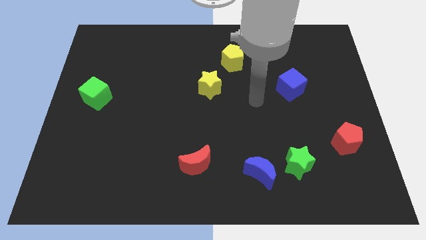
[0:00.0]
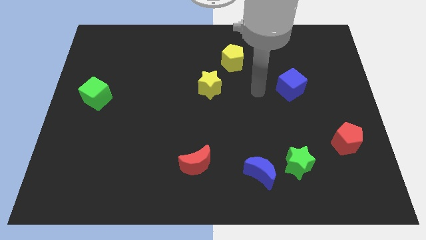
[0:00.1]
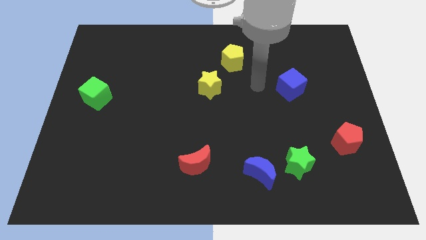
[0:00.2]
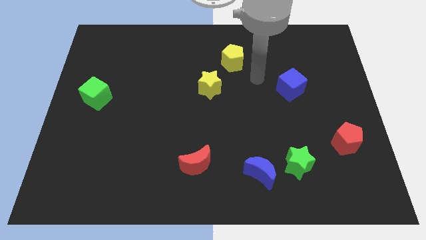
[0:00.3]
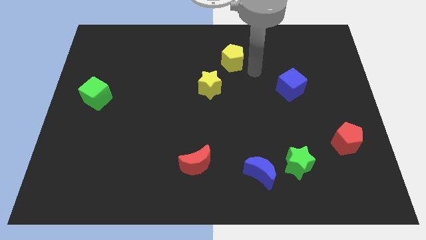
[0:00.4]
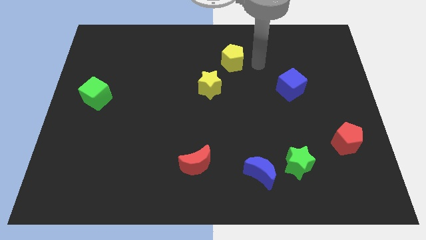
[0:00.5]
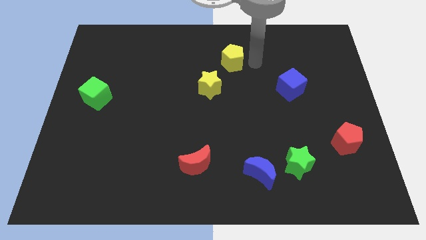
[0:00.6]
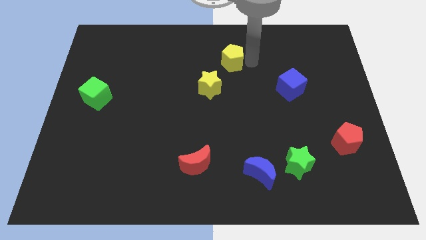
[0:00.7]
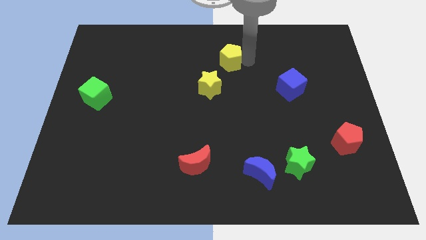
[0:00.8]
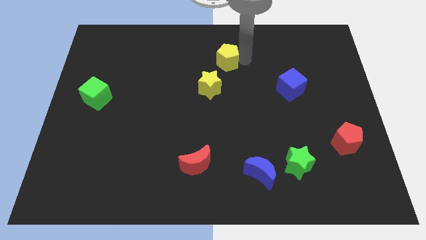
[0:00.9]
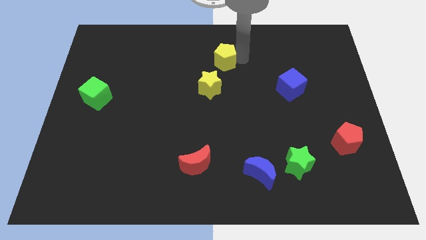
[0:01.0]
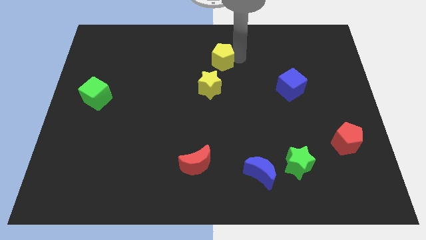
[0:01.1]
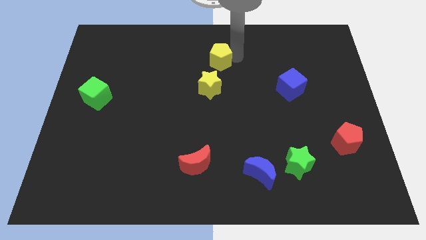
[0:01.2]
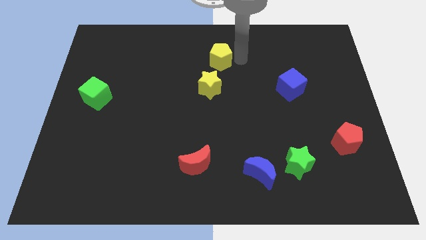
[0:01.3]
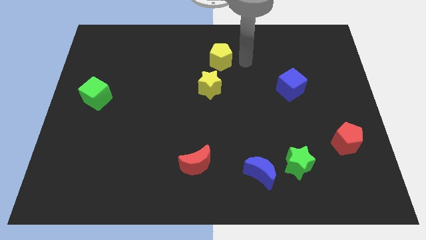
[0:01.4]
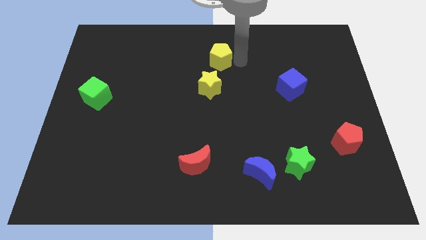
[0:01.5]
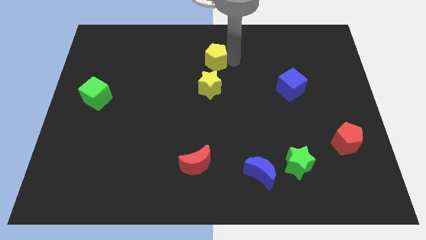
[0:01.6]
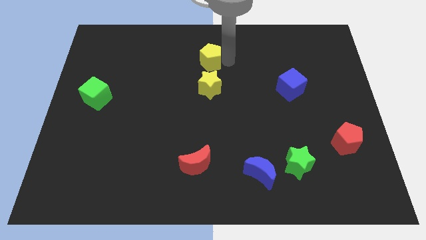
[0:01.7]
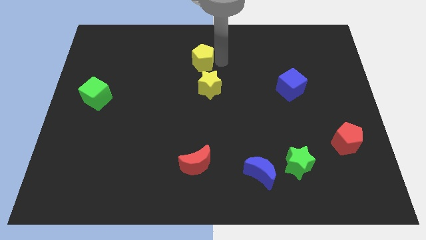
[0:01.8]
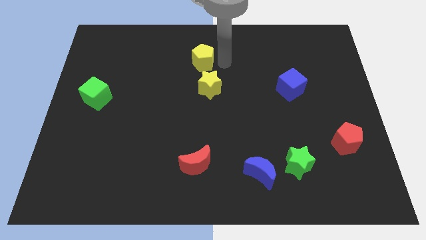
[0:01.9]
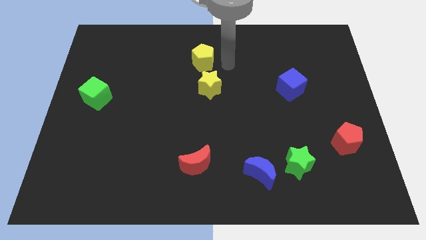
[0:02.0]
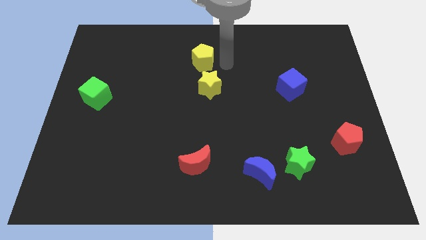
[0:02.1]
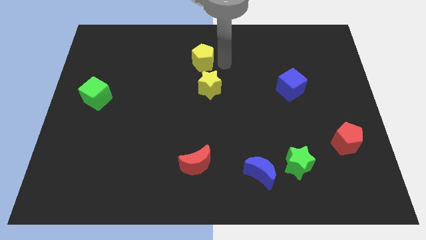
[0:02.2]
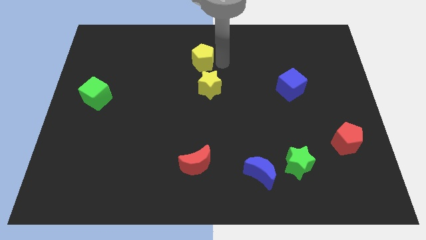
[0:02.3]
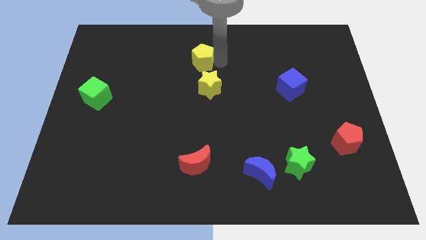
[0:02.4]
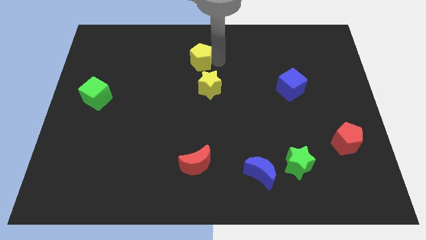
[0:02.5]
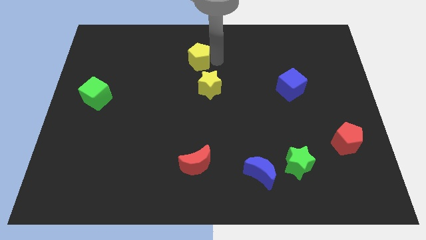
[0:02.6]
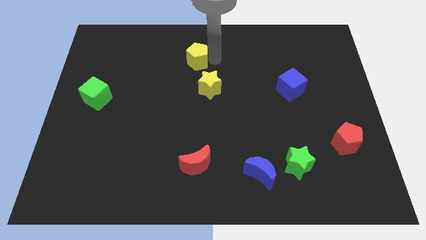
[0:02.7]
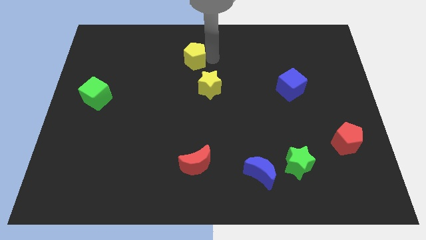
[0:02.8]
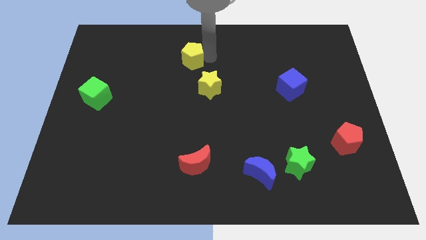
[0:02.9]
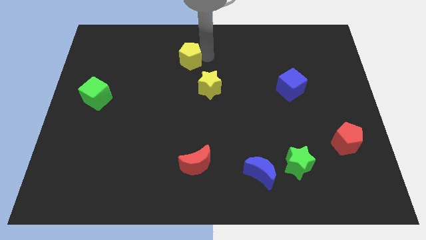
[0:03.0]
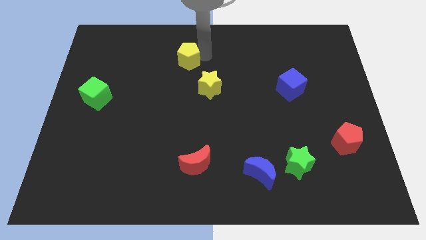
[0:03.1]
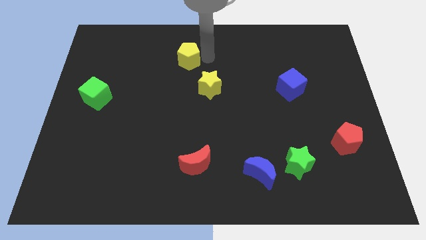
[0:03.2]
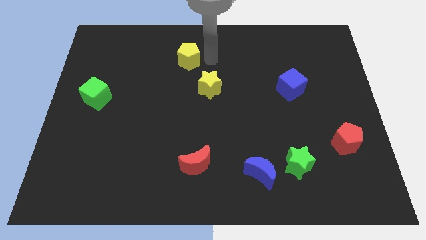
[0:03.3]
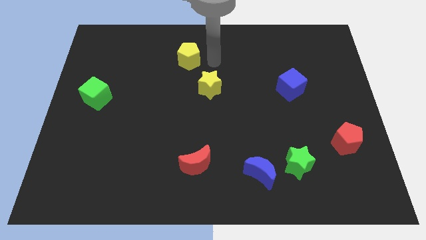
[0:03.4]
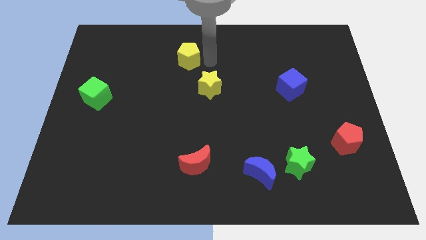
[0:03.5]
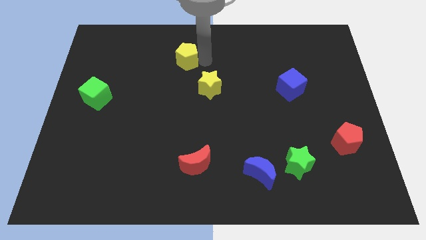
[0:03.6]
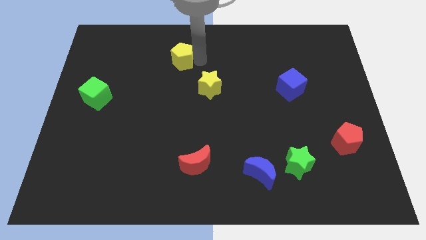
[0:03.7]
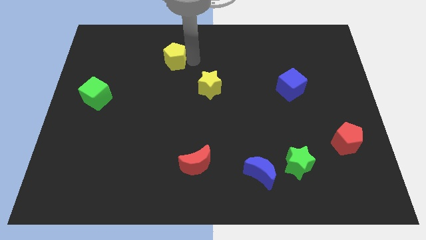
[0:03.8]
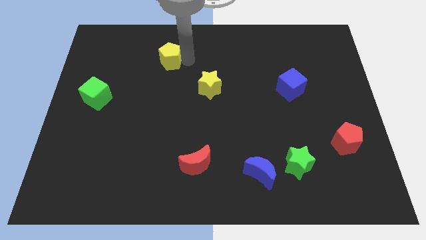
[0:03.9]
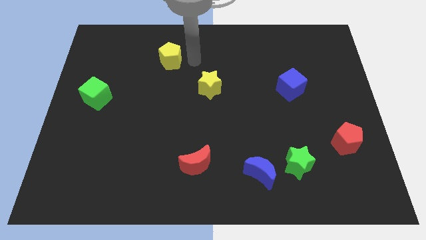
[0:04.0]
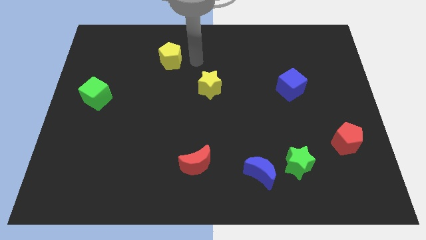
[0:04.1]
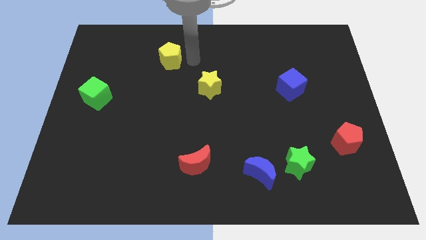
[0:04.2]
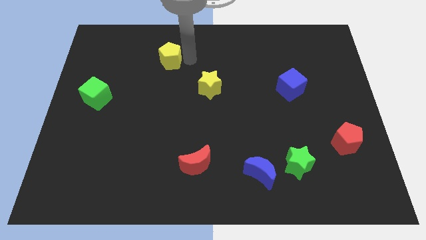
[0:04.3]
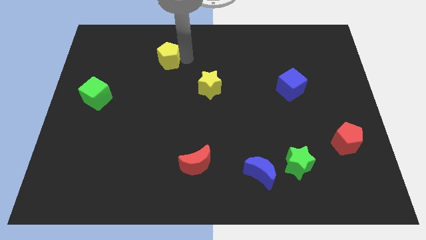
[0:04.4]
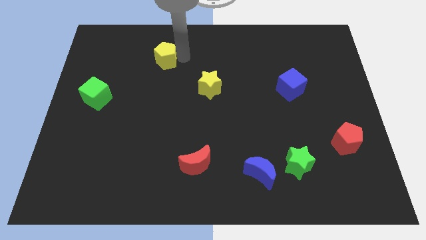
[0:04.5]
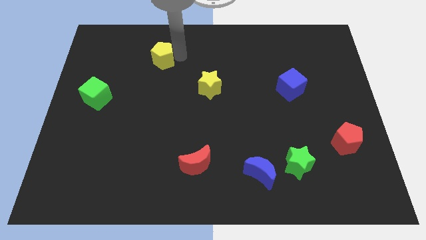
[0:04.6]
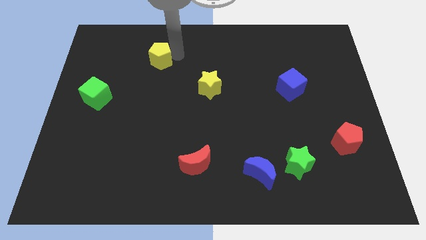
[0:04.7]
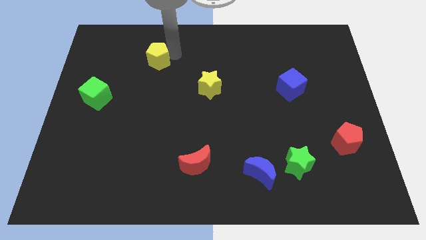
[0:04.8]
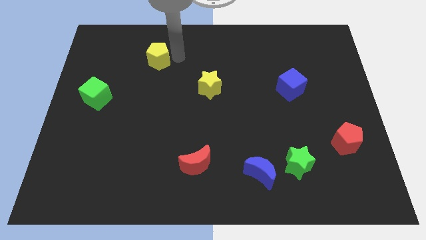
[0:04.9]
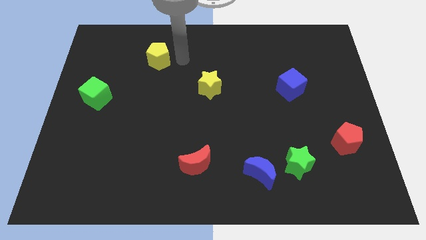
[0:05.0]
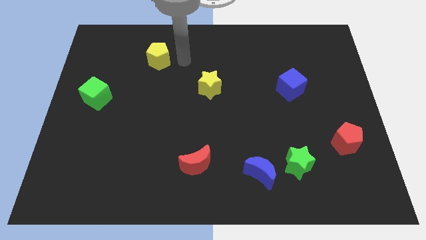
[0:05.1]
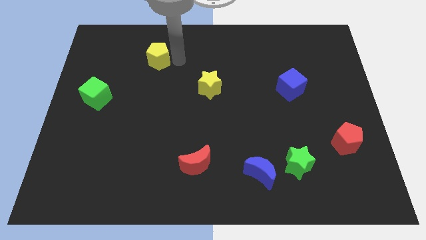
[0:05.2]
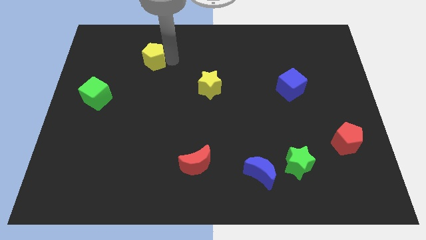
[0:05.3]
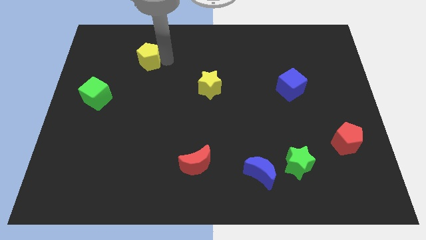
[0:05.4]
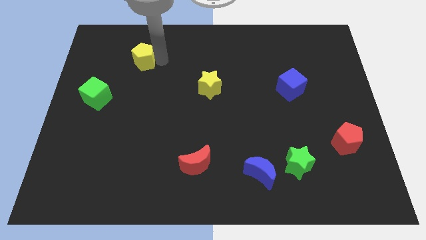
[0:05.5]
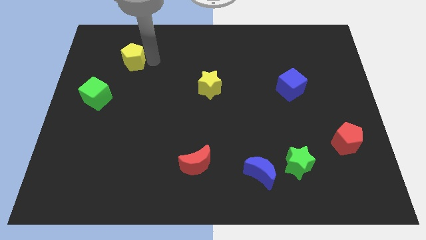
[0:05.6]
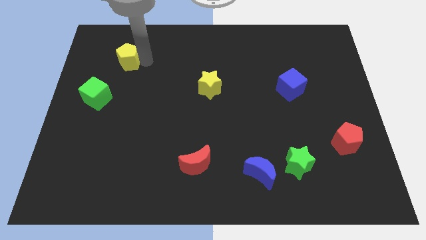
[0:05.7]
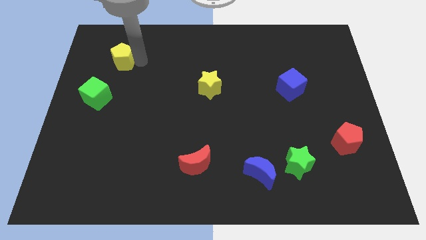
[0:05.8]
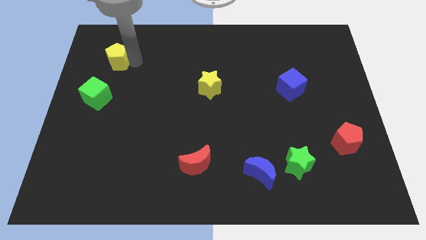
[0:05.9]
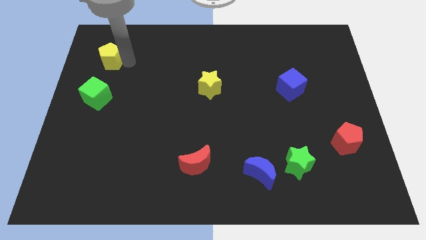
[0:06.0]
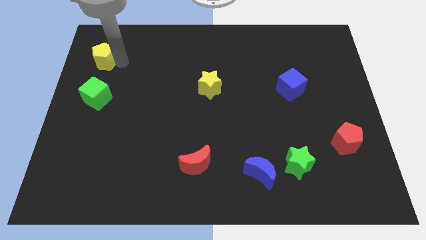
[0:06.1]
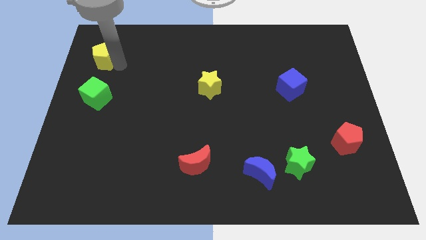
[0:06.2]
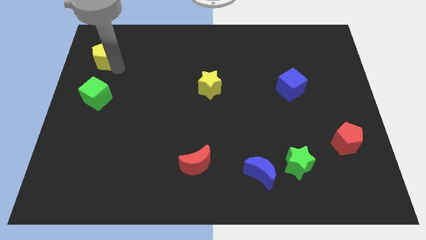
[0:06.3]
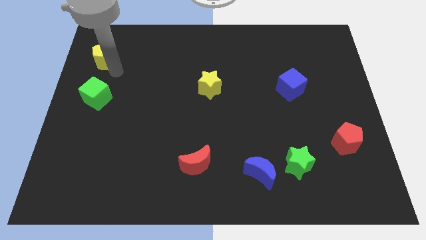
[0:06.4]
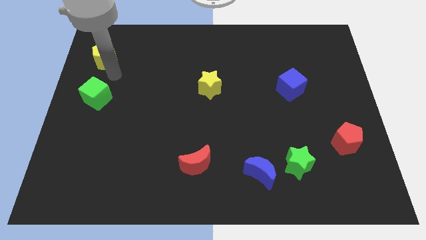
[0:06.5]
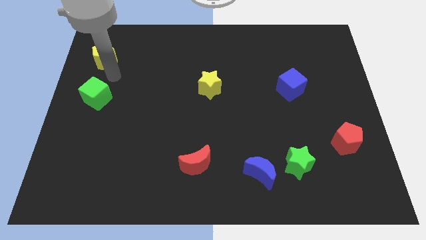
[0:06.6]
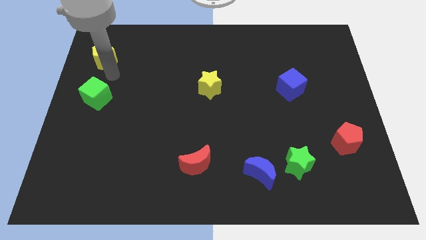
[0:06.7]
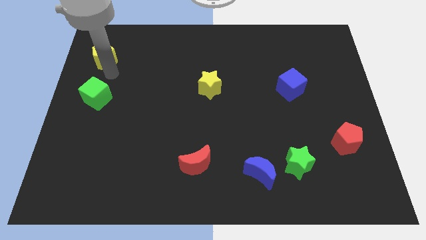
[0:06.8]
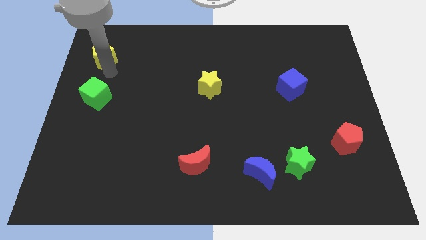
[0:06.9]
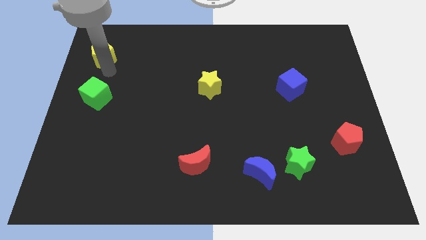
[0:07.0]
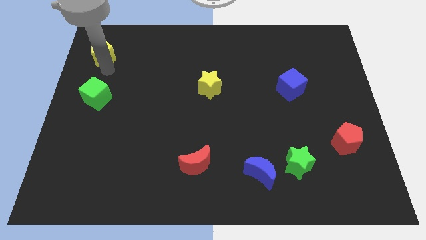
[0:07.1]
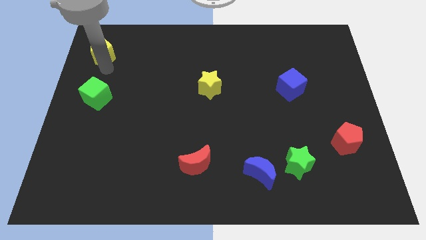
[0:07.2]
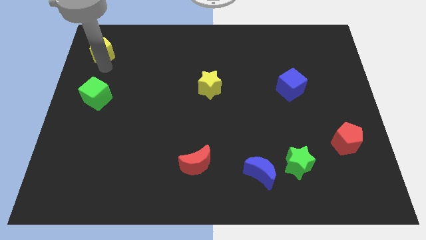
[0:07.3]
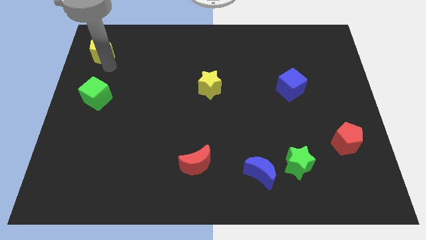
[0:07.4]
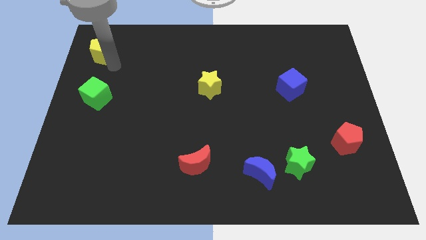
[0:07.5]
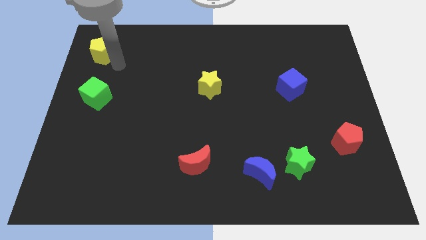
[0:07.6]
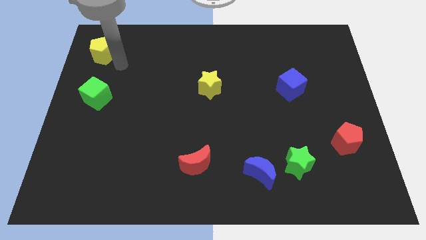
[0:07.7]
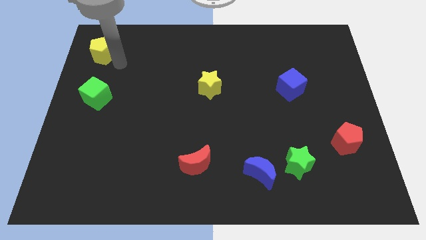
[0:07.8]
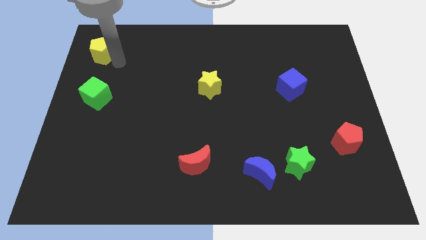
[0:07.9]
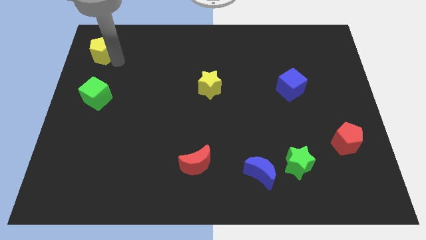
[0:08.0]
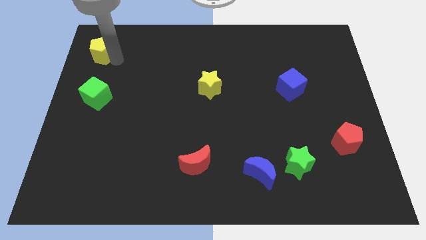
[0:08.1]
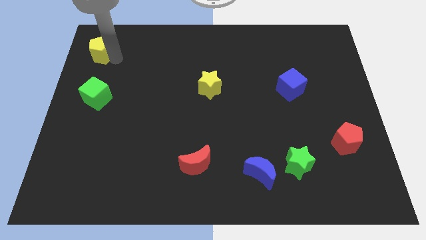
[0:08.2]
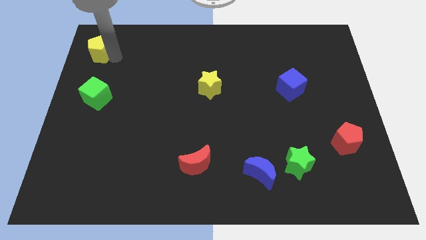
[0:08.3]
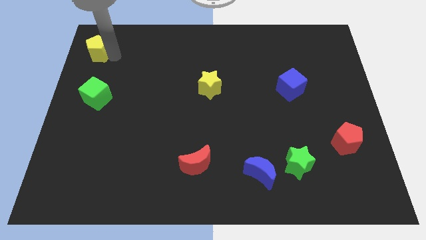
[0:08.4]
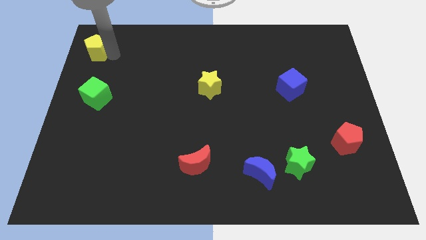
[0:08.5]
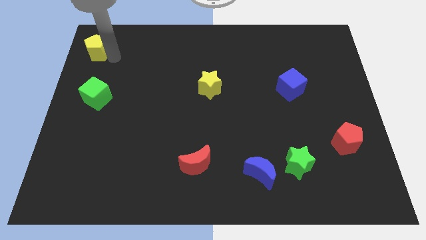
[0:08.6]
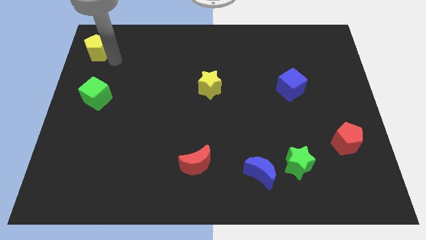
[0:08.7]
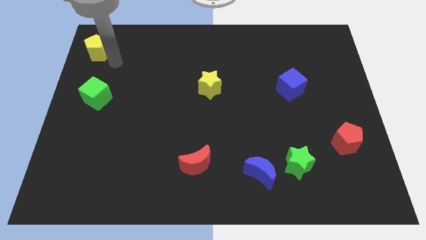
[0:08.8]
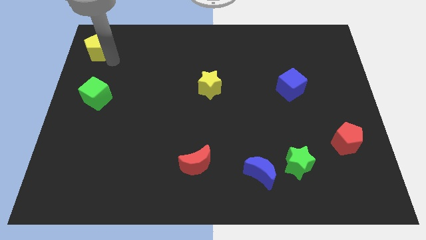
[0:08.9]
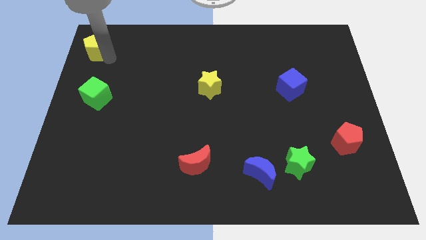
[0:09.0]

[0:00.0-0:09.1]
slide the yellow pentagon to the top left of the board
